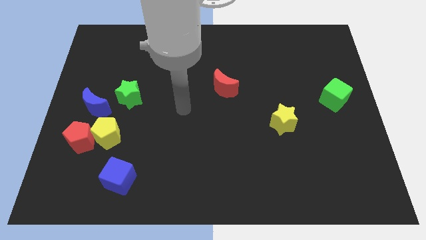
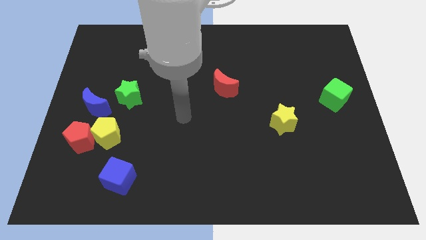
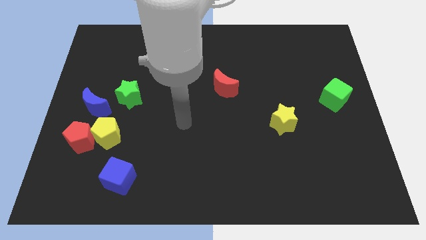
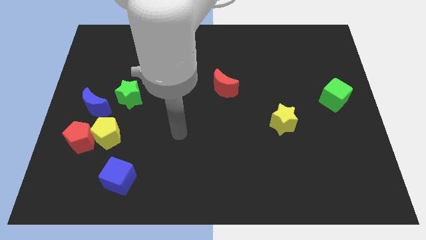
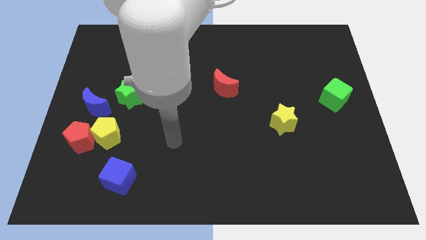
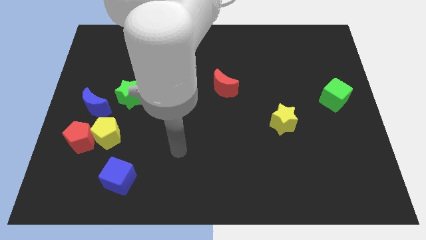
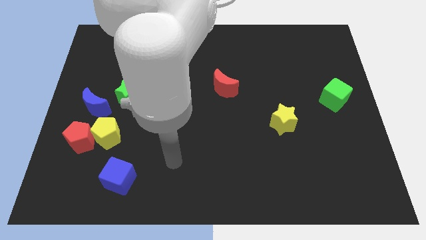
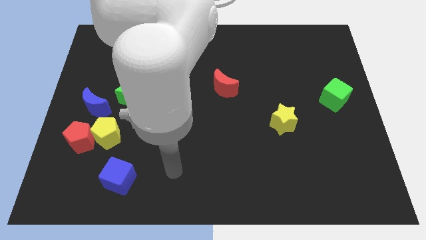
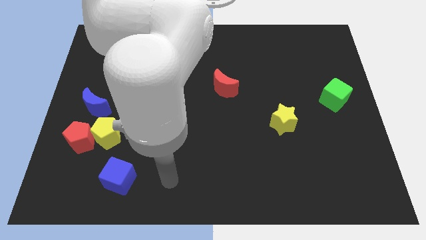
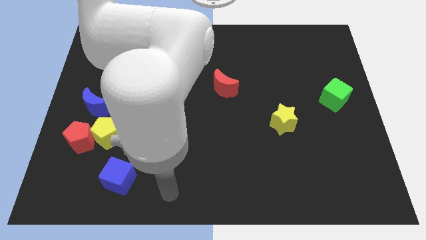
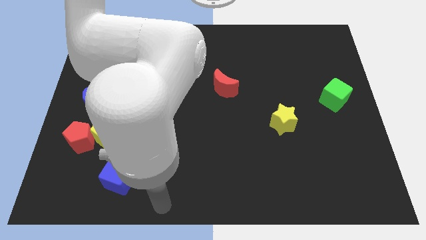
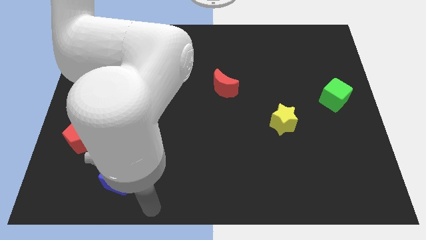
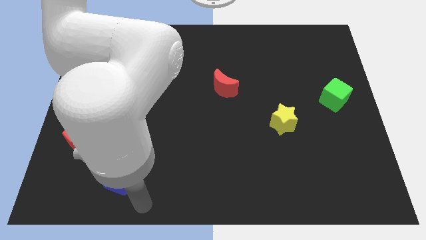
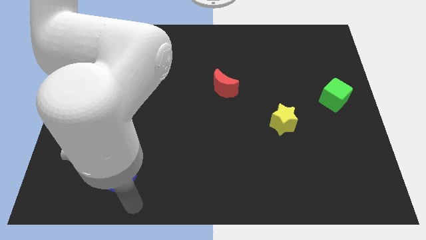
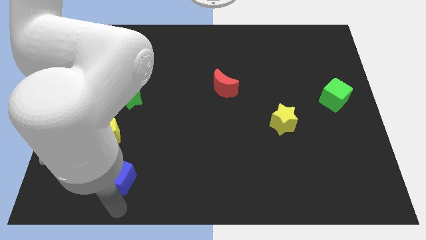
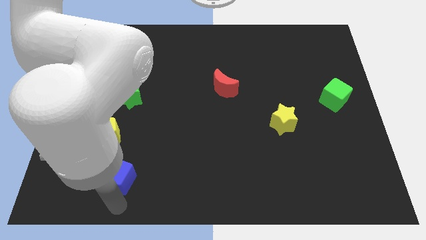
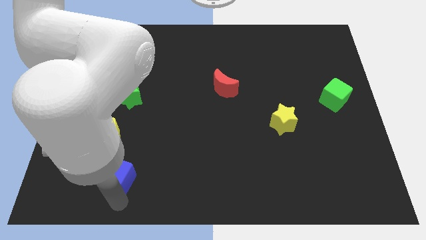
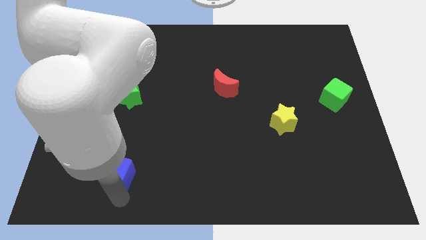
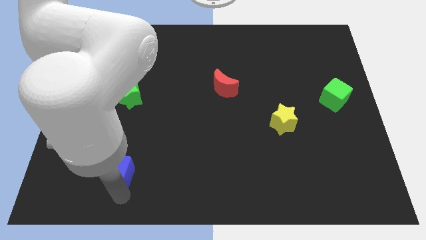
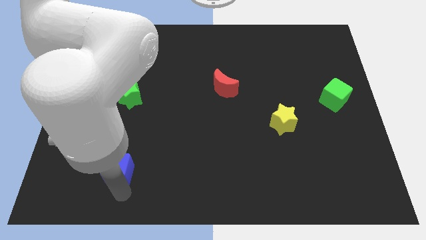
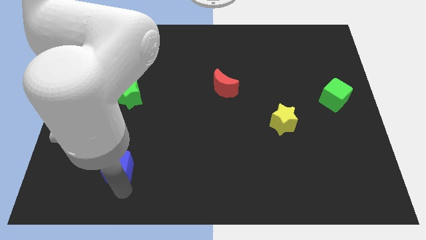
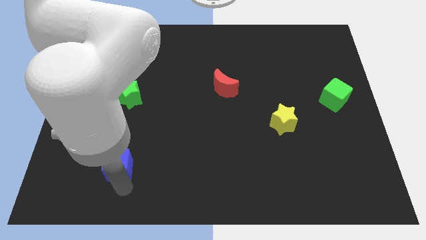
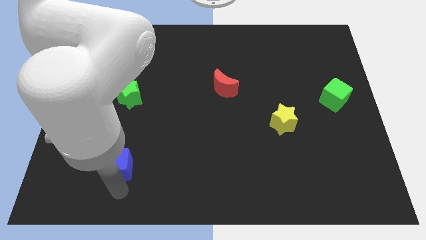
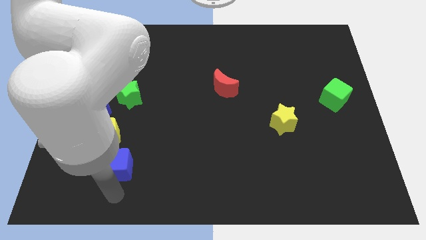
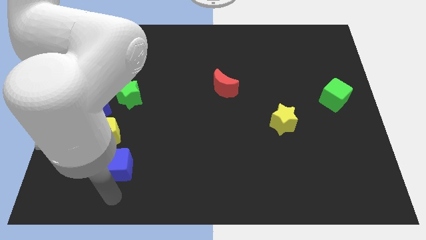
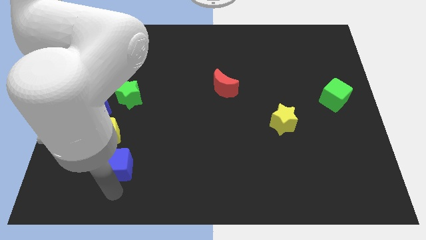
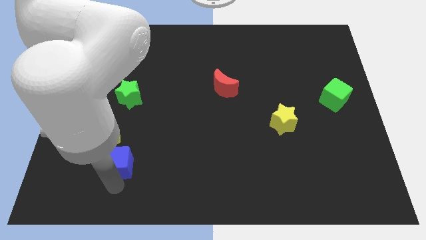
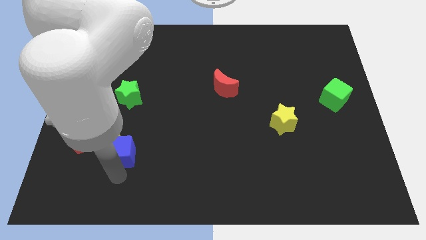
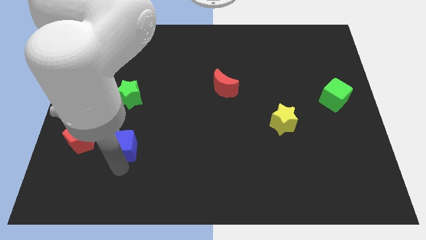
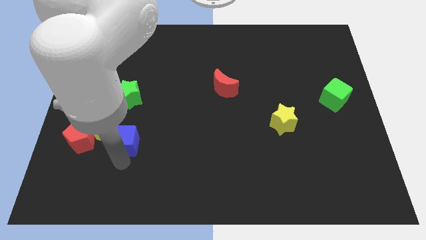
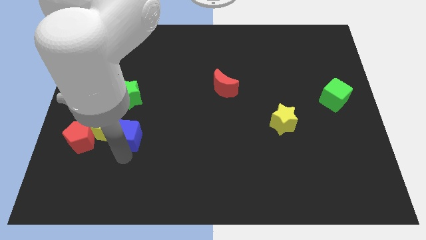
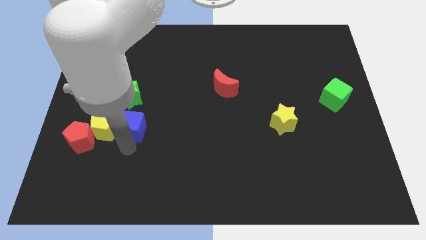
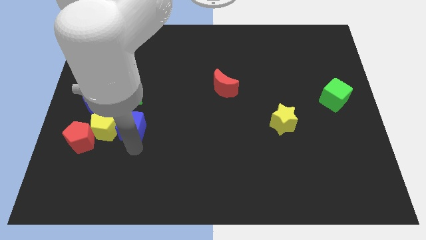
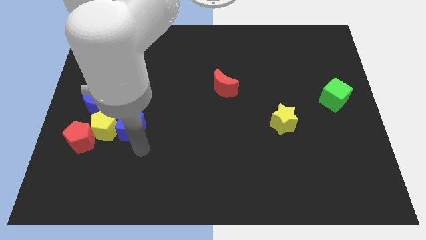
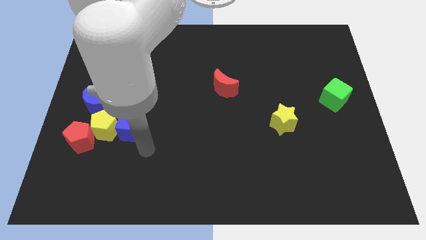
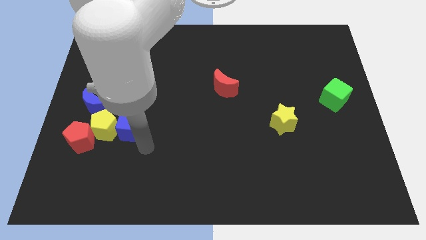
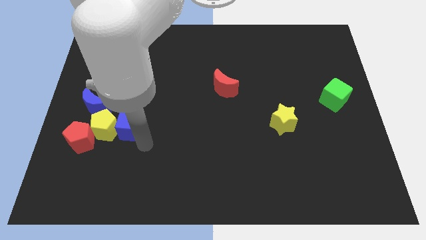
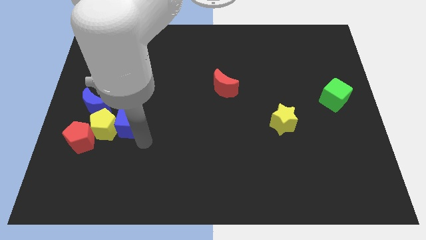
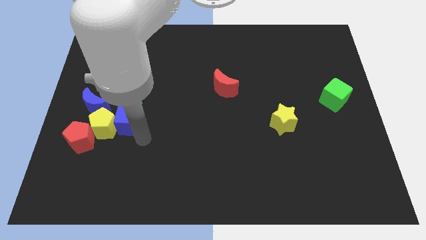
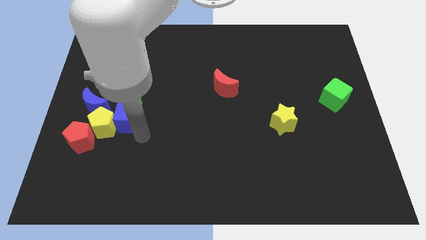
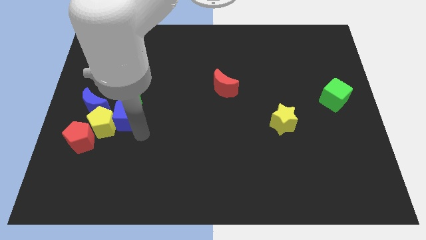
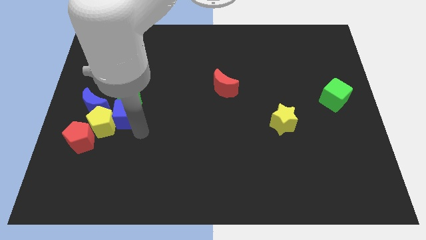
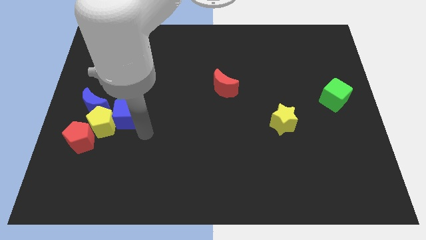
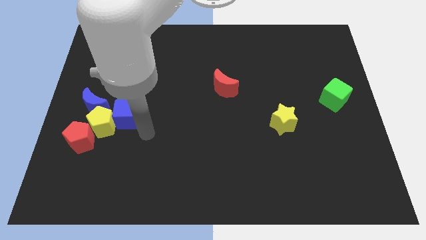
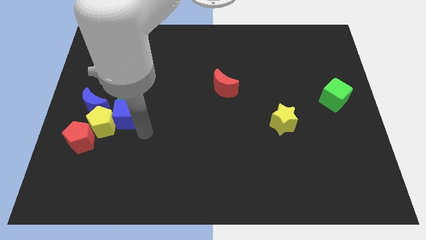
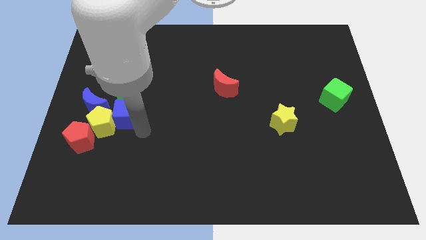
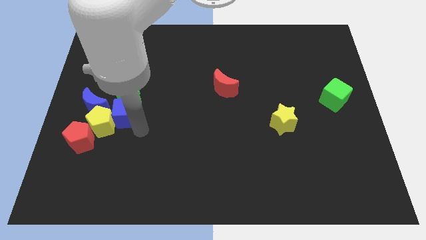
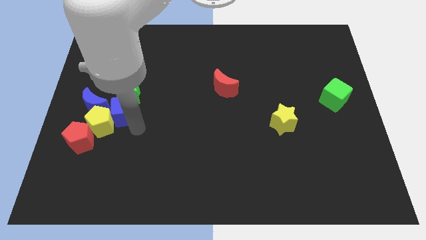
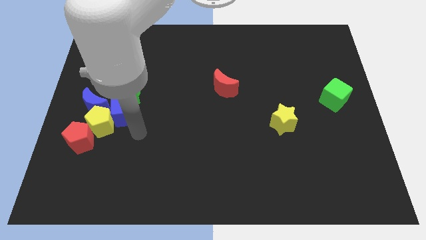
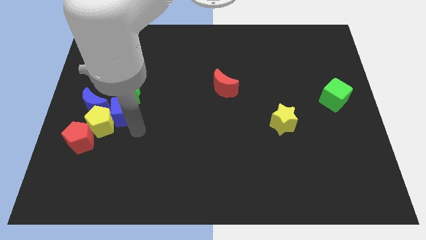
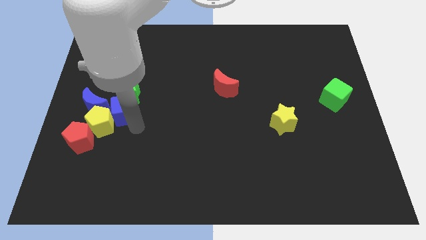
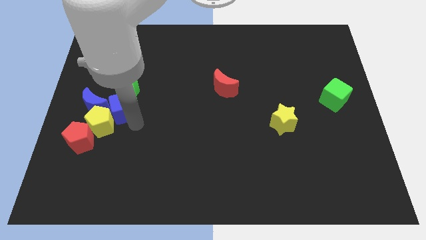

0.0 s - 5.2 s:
push the blue cube to the top of the yellow pentagon

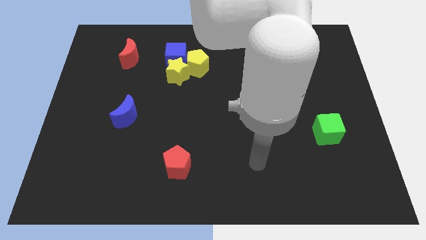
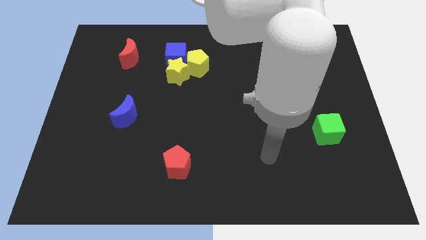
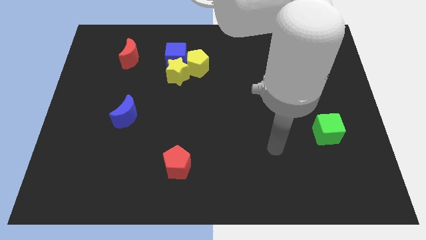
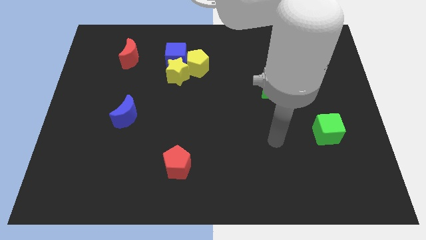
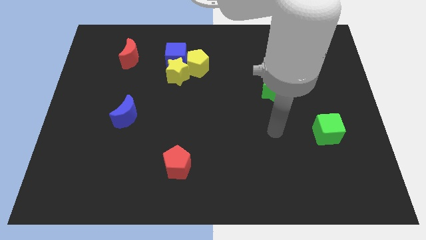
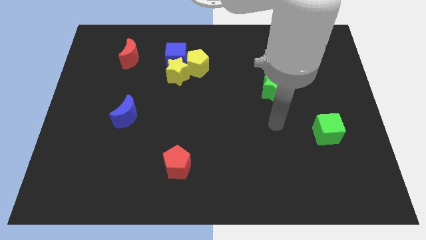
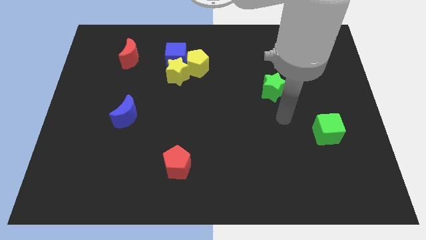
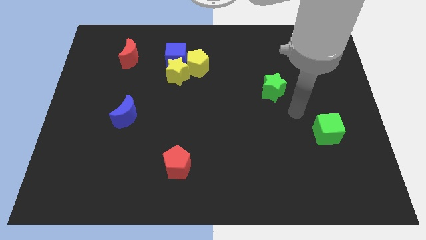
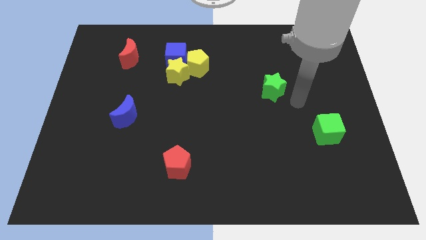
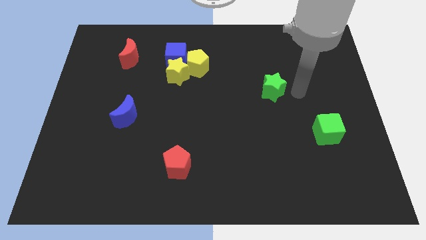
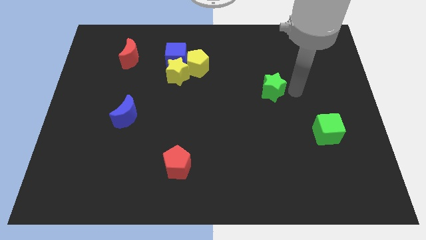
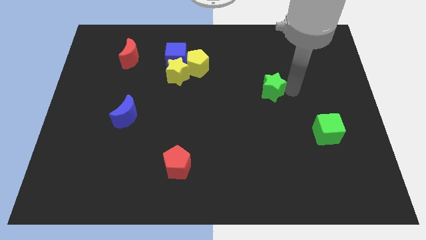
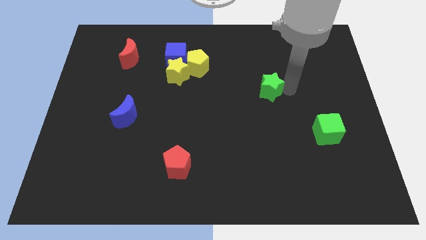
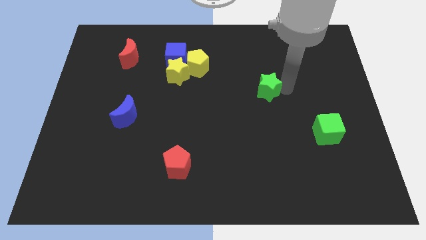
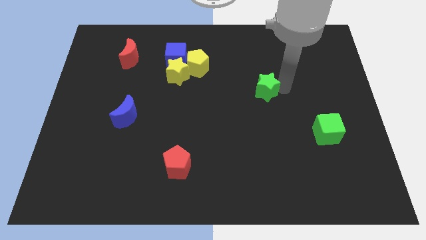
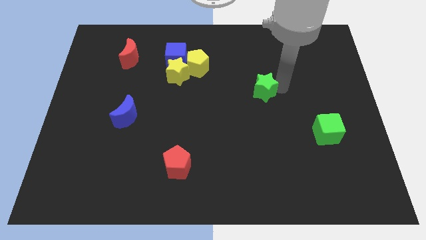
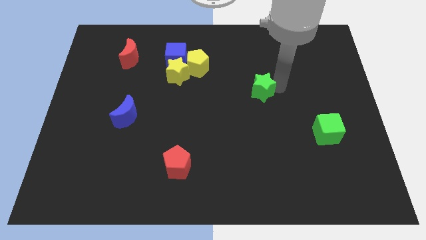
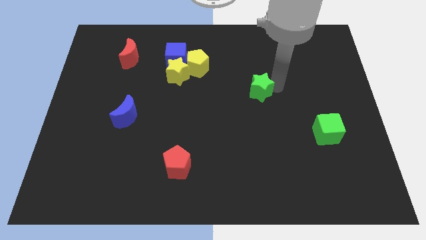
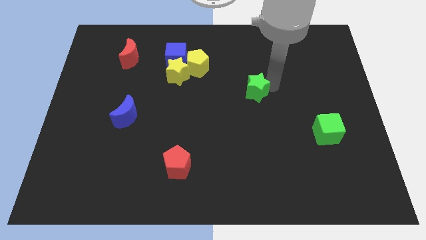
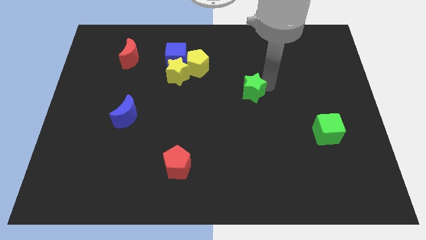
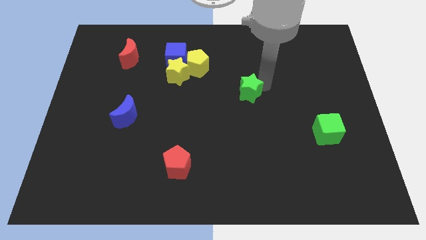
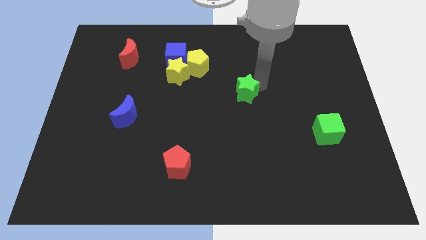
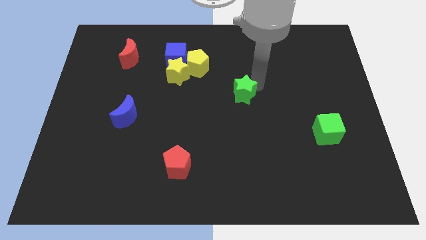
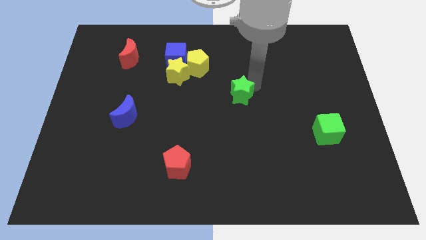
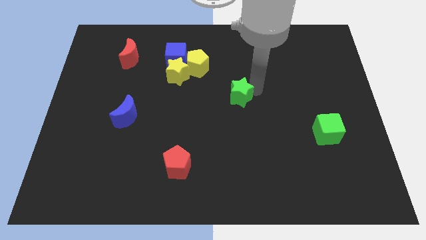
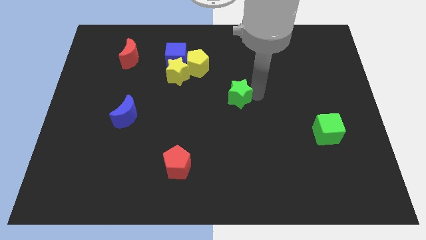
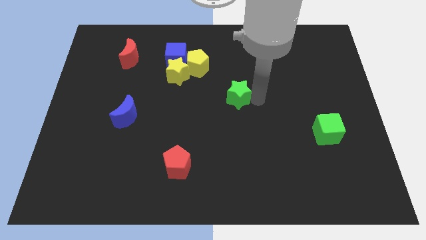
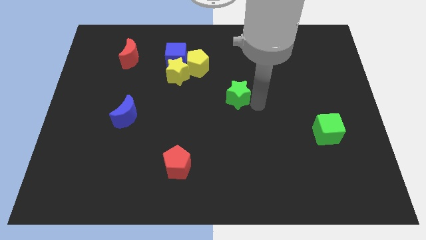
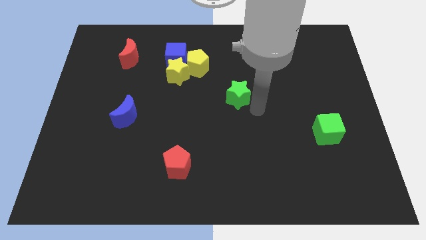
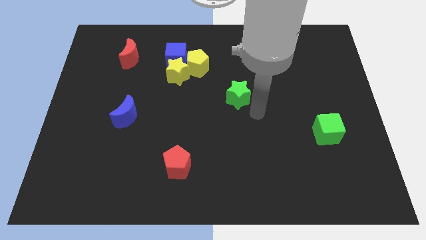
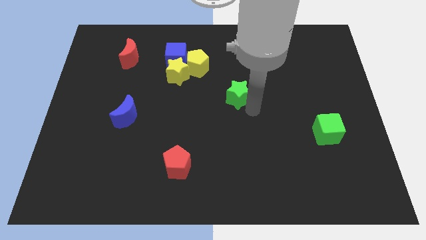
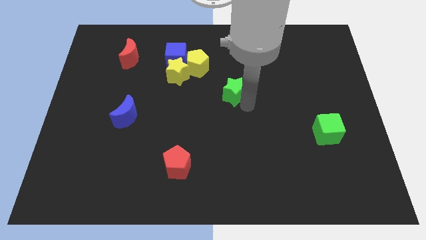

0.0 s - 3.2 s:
move the green star to the bottom right of the yellow pentagon
